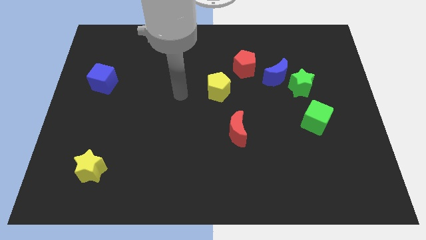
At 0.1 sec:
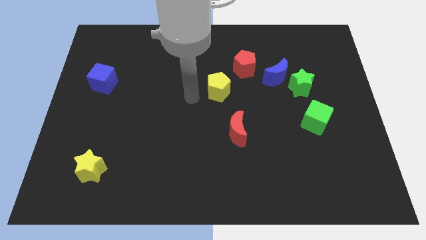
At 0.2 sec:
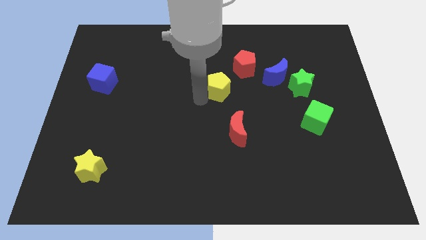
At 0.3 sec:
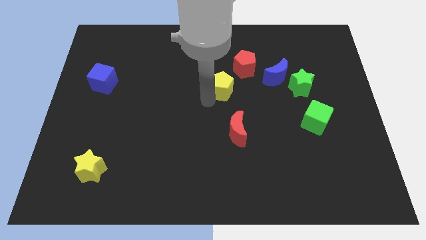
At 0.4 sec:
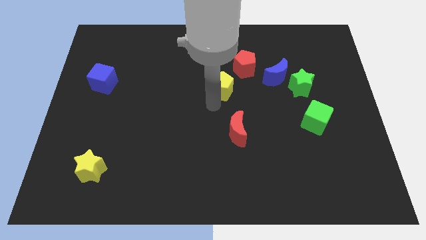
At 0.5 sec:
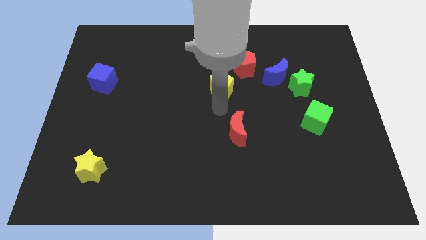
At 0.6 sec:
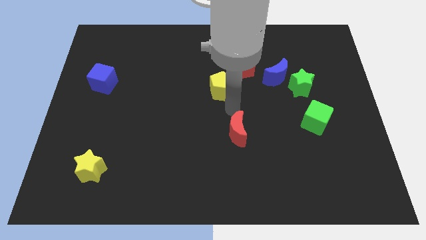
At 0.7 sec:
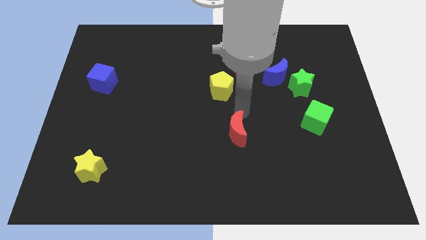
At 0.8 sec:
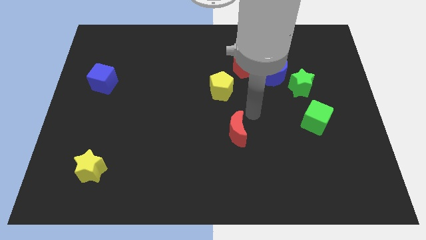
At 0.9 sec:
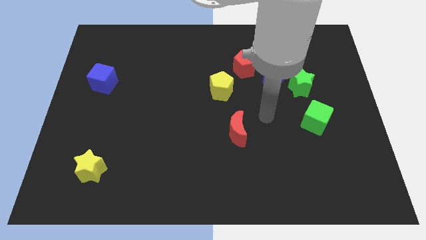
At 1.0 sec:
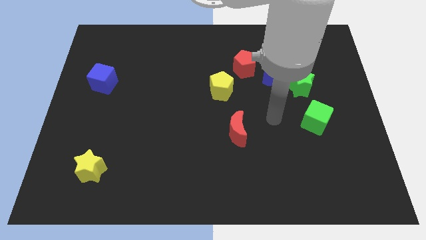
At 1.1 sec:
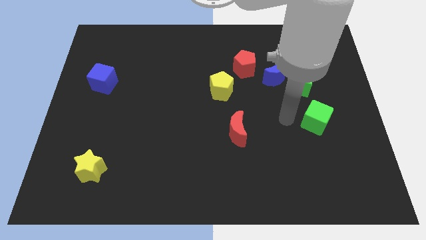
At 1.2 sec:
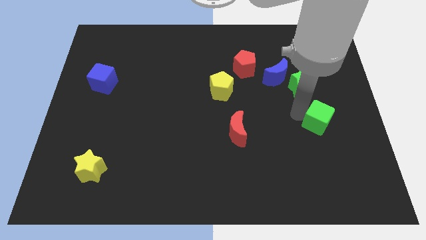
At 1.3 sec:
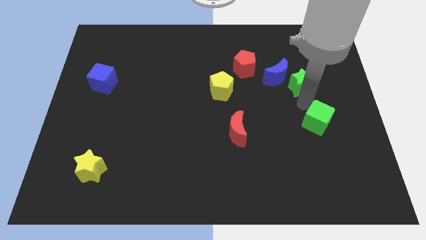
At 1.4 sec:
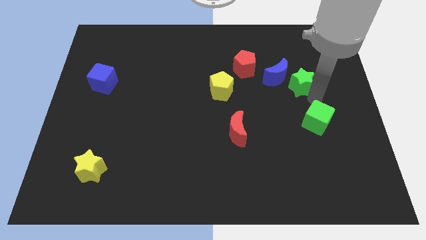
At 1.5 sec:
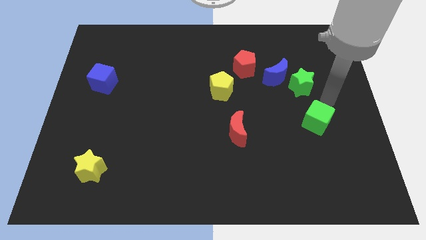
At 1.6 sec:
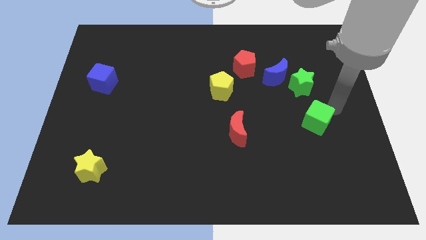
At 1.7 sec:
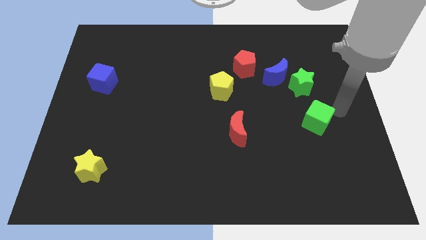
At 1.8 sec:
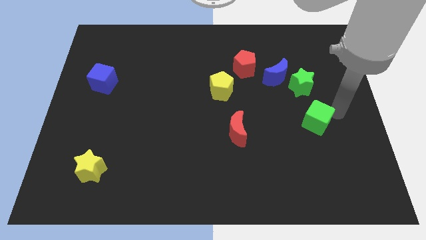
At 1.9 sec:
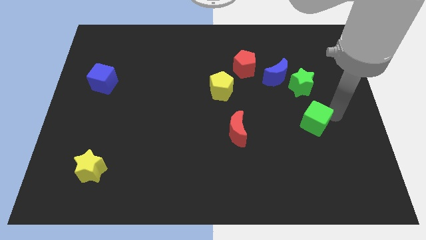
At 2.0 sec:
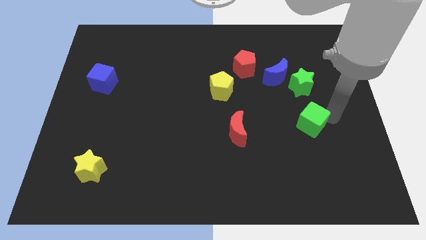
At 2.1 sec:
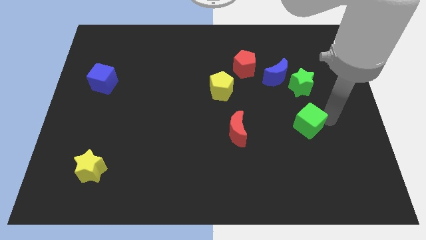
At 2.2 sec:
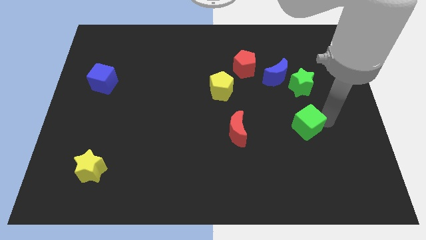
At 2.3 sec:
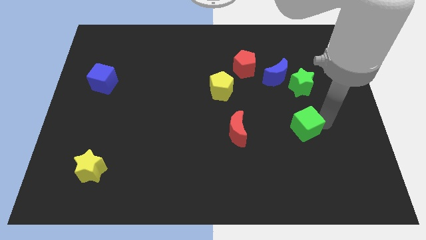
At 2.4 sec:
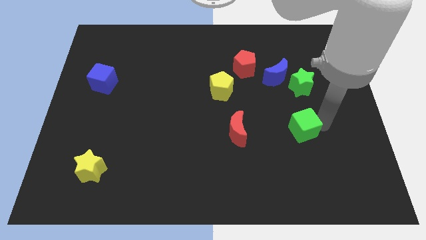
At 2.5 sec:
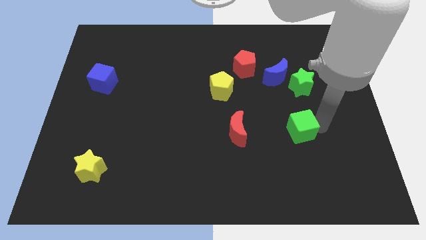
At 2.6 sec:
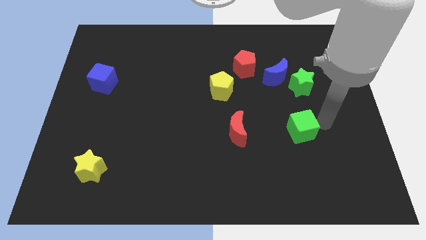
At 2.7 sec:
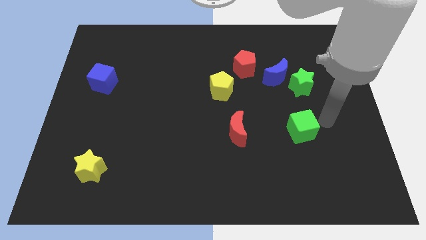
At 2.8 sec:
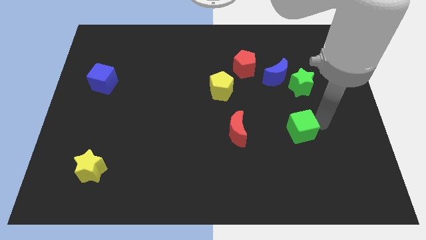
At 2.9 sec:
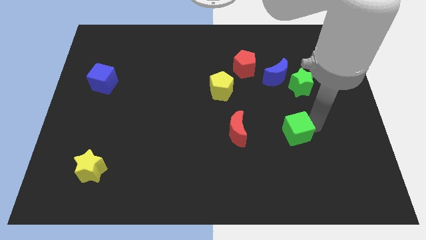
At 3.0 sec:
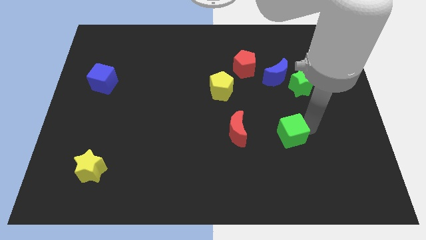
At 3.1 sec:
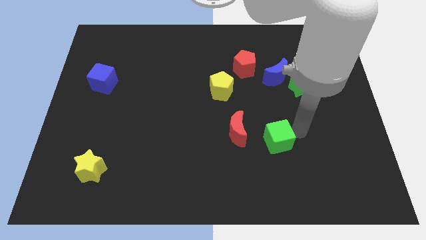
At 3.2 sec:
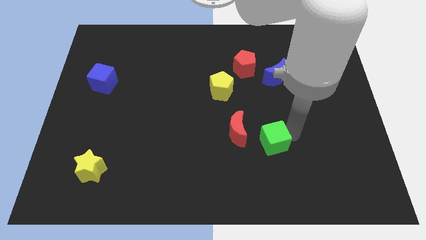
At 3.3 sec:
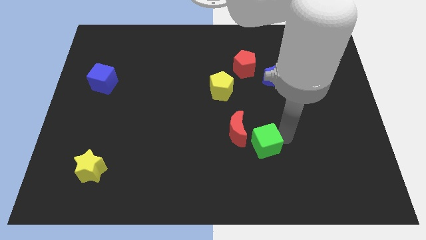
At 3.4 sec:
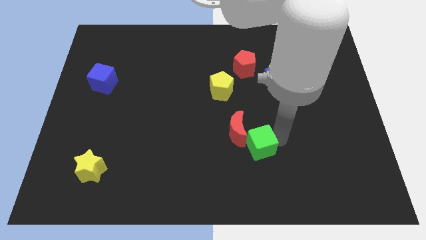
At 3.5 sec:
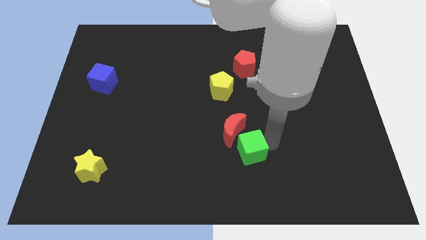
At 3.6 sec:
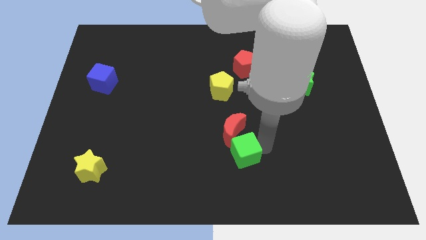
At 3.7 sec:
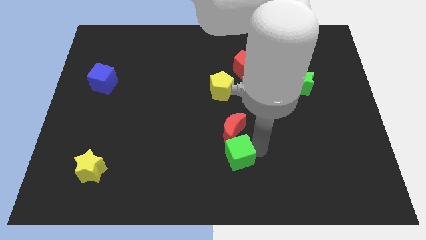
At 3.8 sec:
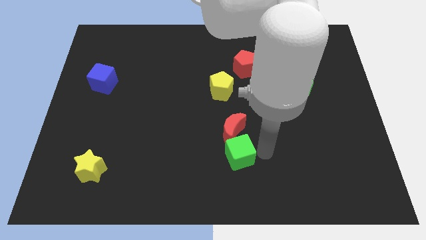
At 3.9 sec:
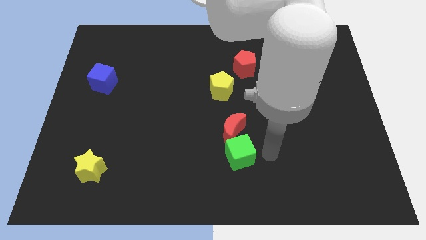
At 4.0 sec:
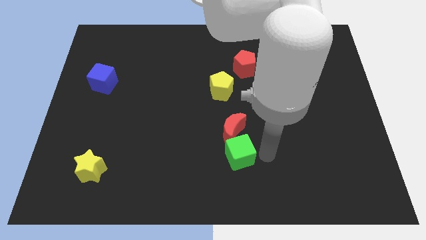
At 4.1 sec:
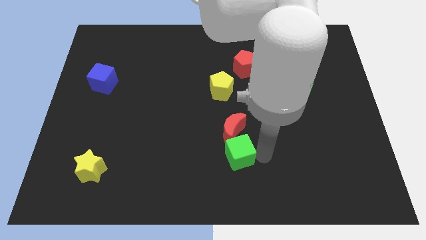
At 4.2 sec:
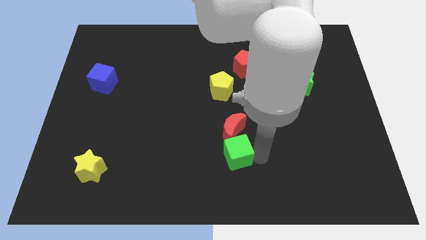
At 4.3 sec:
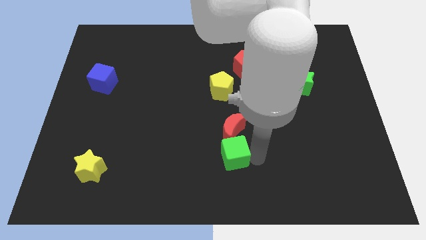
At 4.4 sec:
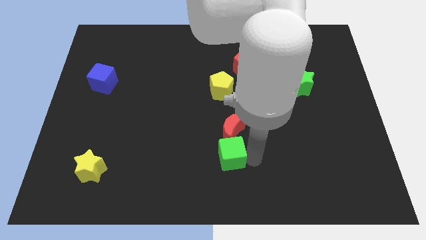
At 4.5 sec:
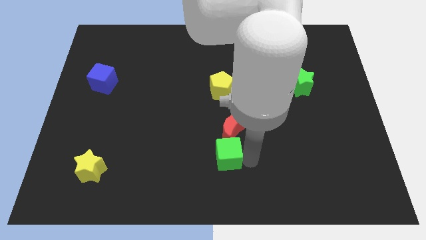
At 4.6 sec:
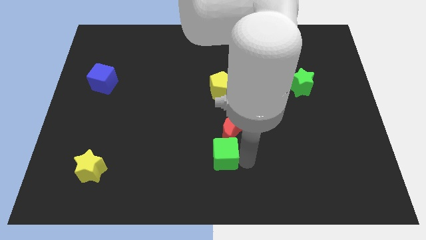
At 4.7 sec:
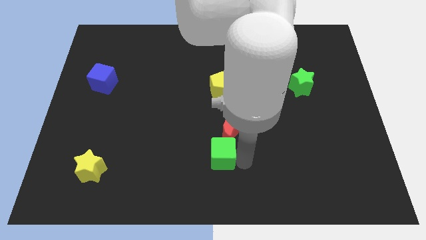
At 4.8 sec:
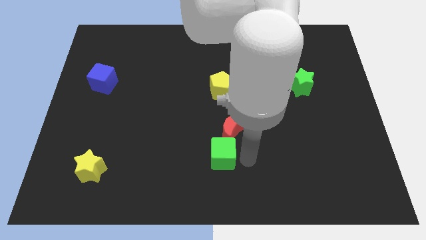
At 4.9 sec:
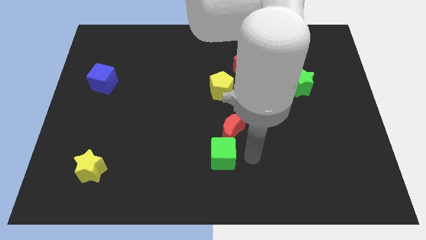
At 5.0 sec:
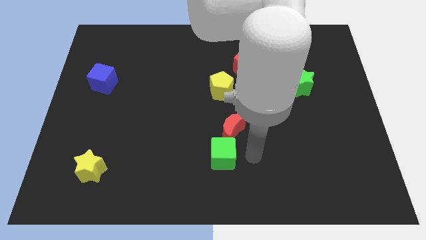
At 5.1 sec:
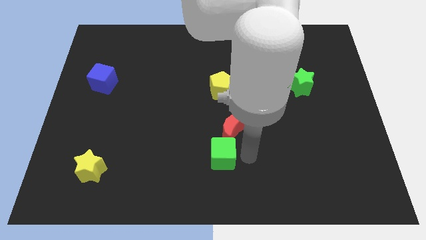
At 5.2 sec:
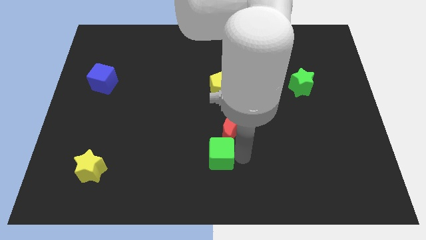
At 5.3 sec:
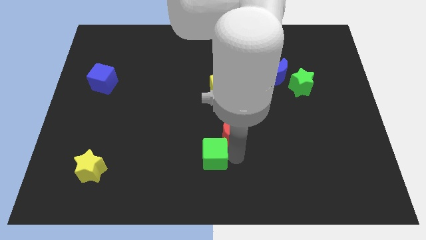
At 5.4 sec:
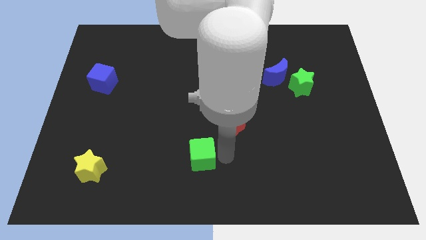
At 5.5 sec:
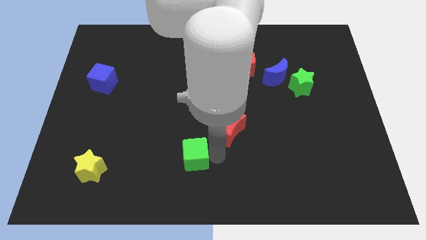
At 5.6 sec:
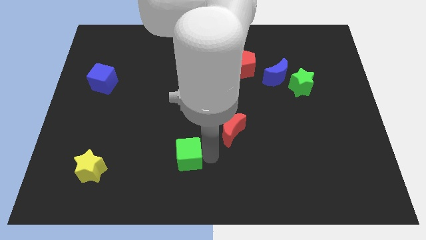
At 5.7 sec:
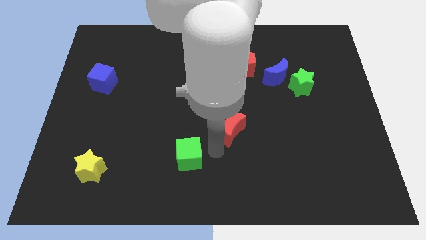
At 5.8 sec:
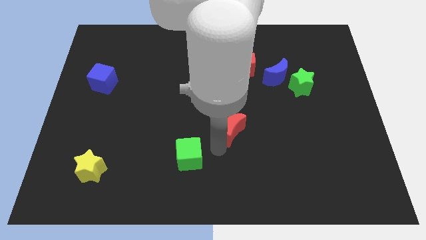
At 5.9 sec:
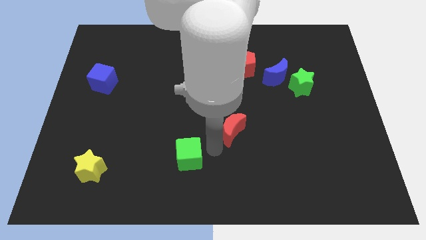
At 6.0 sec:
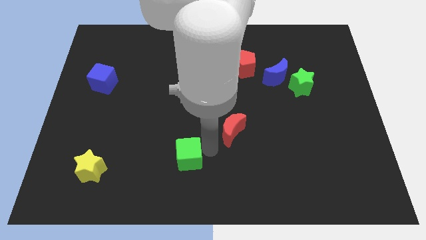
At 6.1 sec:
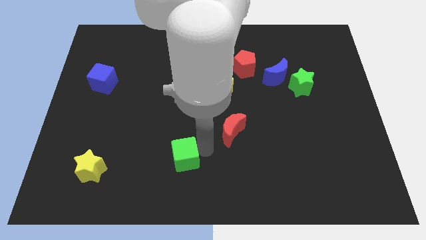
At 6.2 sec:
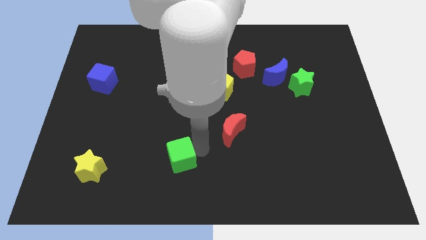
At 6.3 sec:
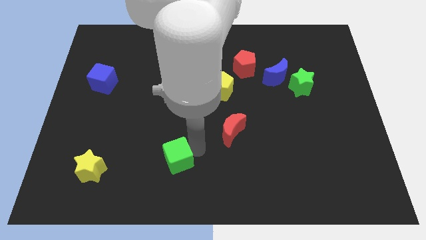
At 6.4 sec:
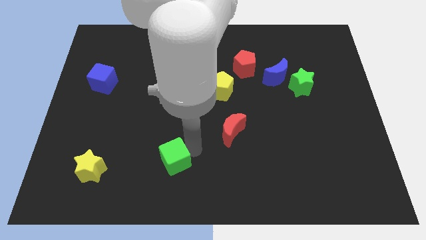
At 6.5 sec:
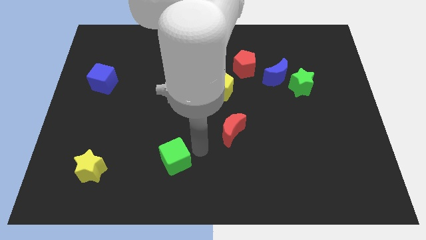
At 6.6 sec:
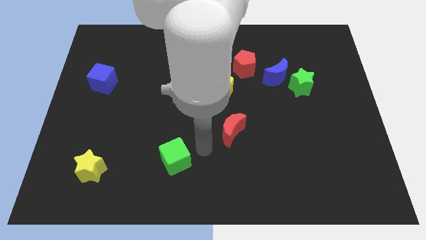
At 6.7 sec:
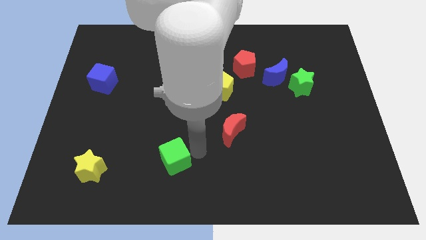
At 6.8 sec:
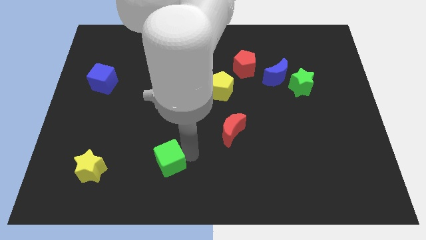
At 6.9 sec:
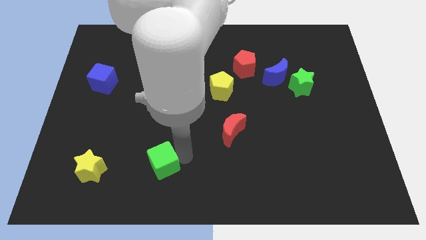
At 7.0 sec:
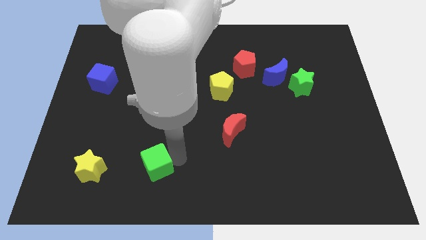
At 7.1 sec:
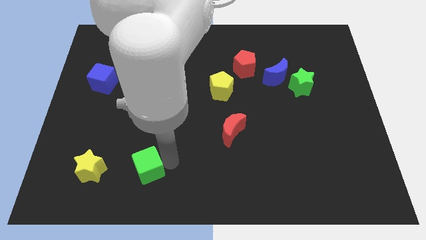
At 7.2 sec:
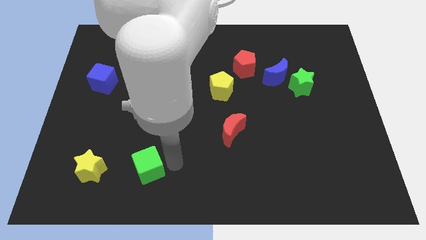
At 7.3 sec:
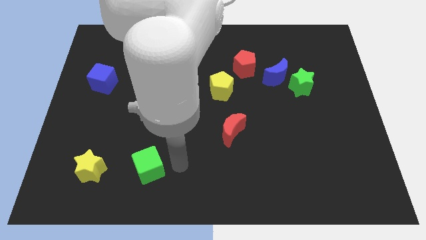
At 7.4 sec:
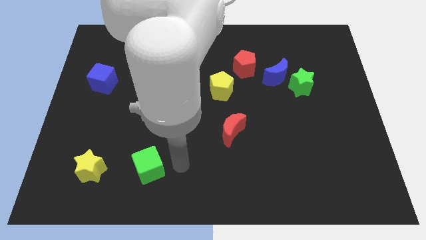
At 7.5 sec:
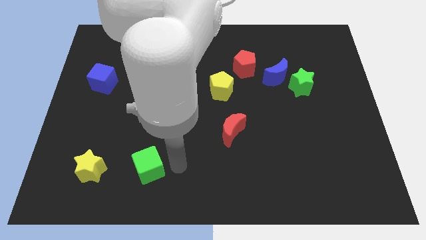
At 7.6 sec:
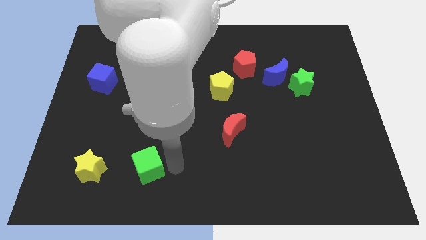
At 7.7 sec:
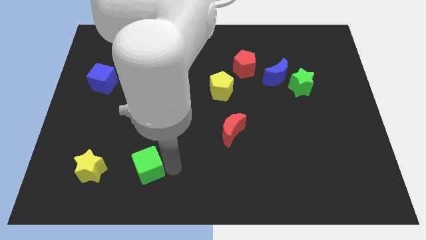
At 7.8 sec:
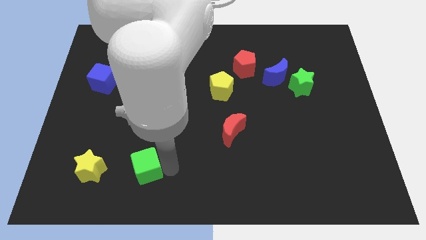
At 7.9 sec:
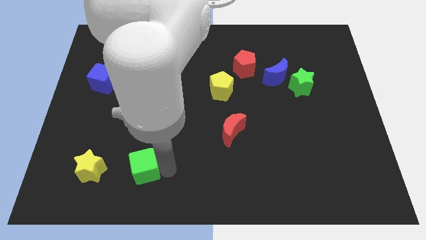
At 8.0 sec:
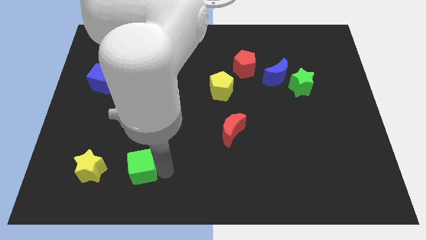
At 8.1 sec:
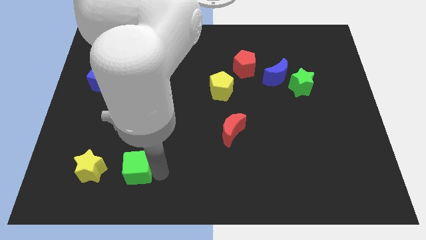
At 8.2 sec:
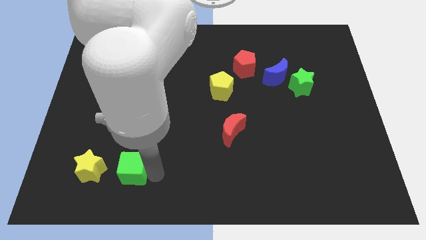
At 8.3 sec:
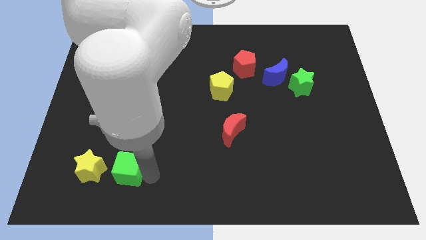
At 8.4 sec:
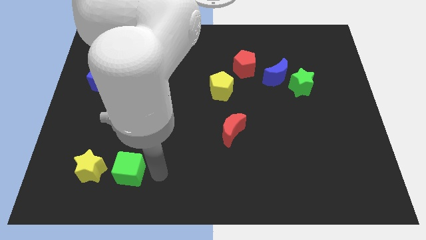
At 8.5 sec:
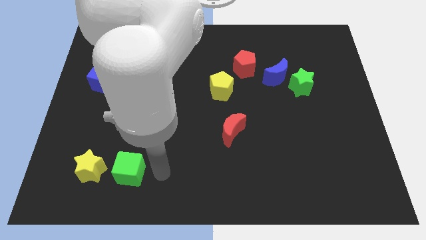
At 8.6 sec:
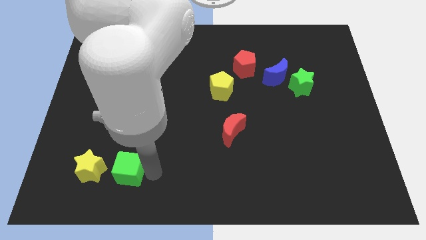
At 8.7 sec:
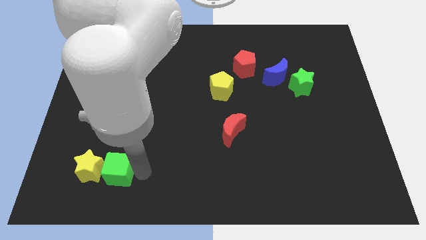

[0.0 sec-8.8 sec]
slide the green cube close to the yellow star
